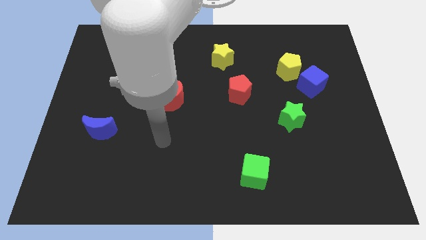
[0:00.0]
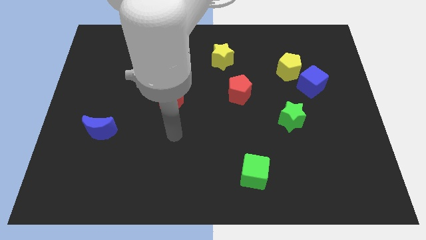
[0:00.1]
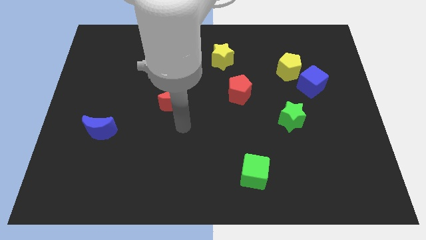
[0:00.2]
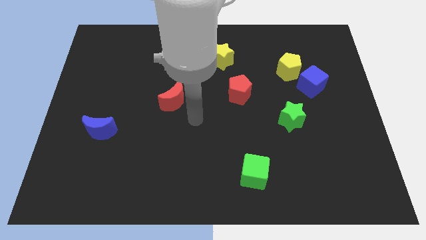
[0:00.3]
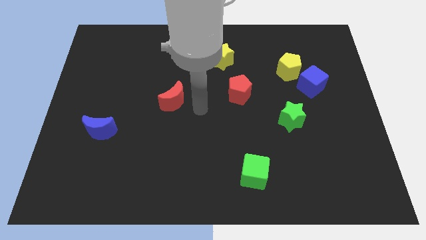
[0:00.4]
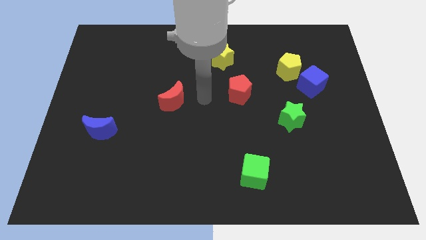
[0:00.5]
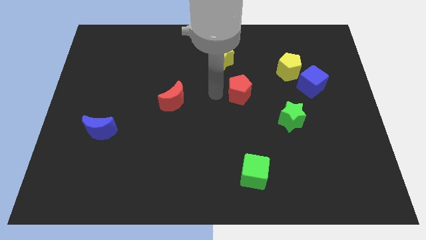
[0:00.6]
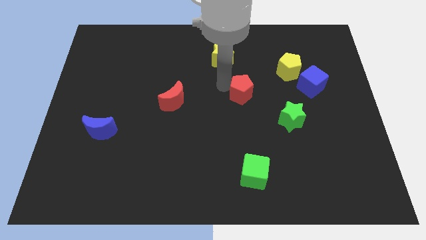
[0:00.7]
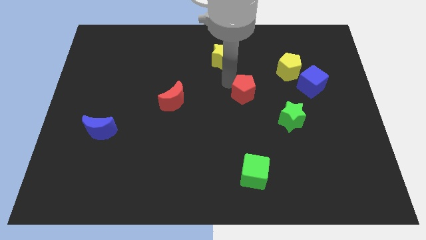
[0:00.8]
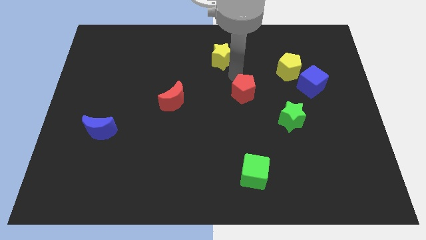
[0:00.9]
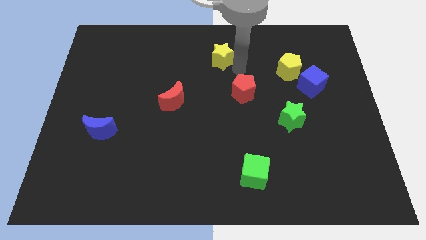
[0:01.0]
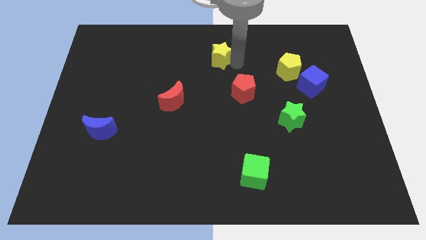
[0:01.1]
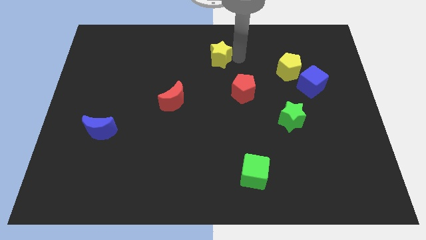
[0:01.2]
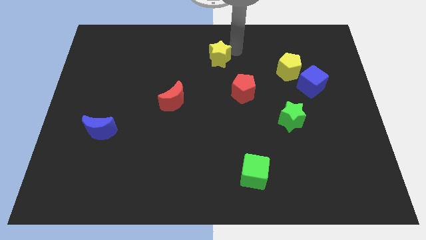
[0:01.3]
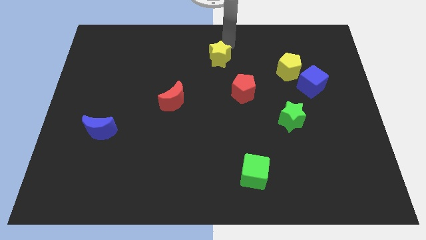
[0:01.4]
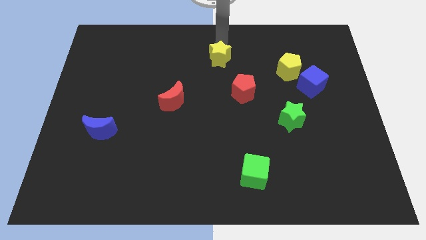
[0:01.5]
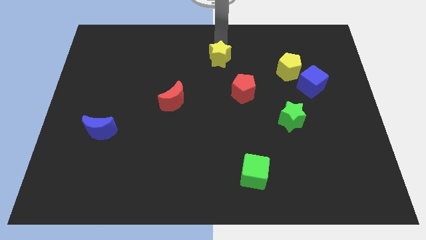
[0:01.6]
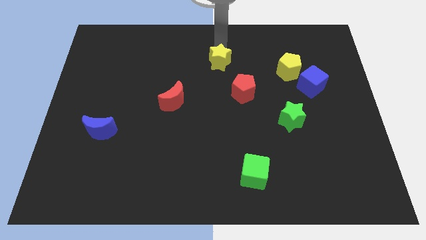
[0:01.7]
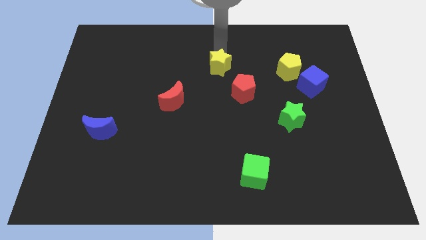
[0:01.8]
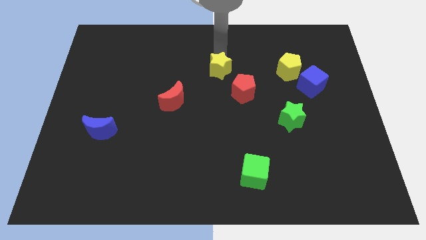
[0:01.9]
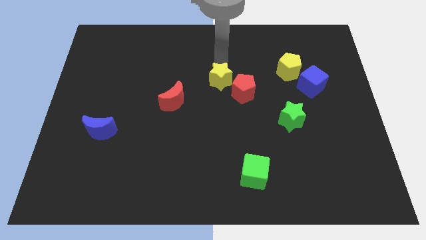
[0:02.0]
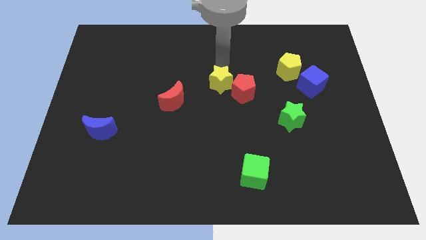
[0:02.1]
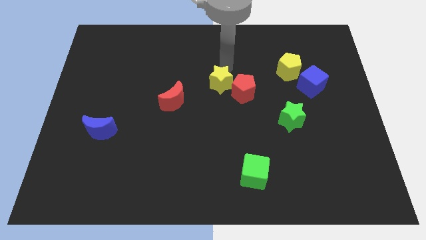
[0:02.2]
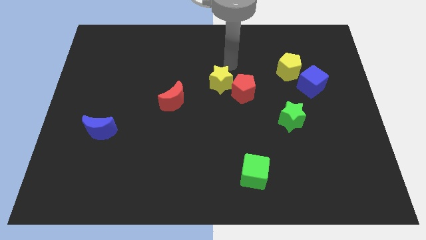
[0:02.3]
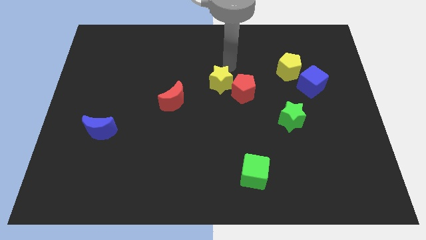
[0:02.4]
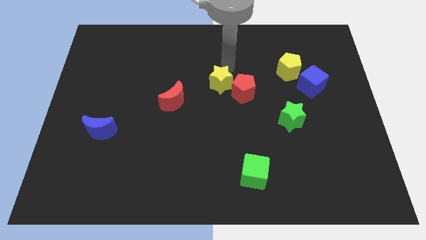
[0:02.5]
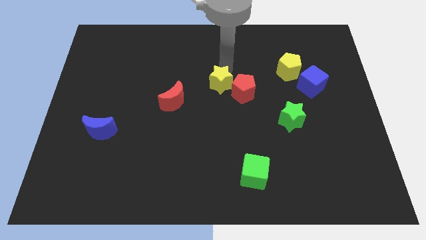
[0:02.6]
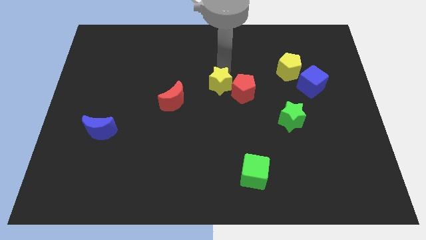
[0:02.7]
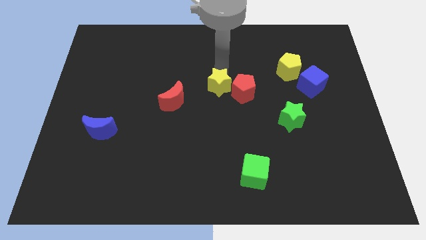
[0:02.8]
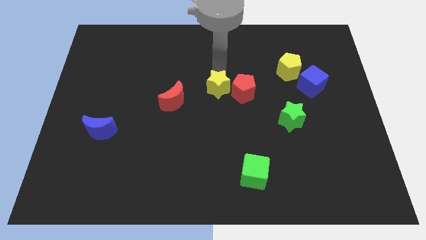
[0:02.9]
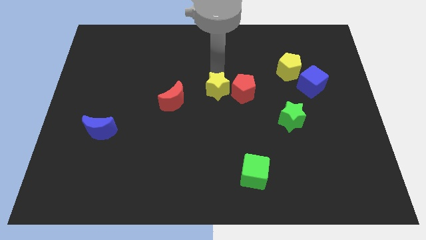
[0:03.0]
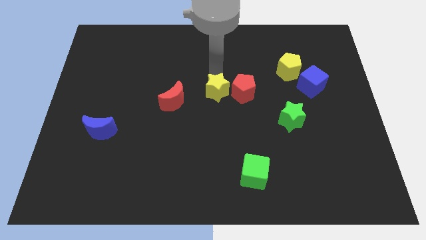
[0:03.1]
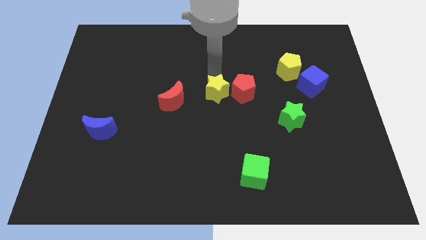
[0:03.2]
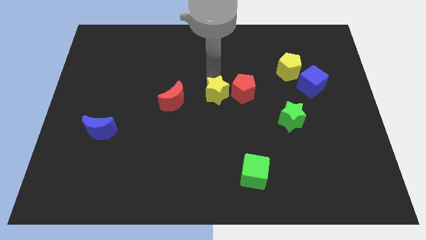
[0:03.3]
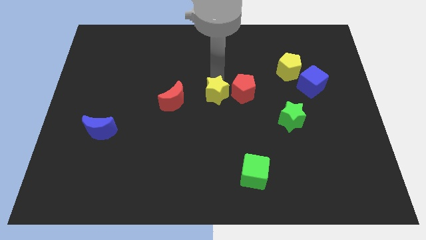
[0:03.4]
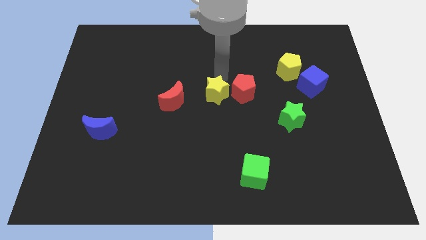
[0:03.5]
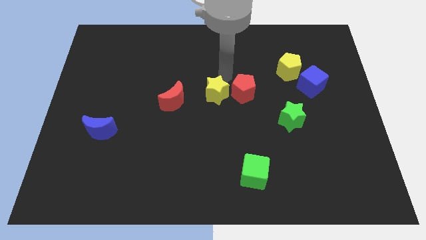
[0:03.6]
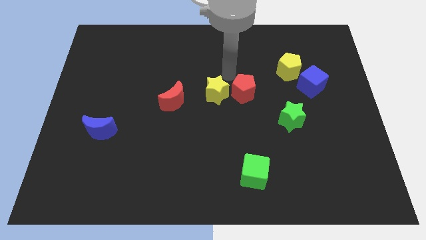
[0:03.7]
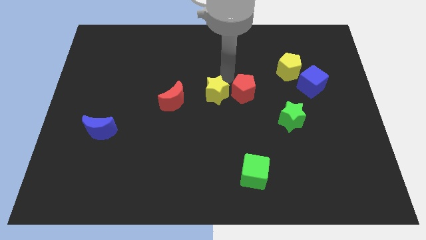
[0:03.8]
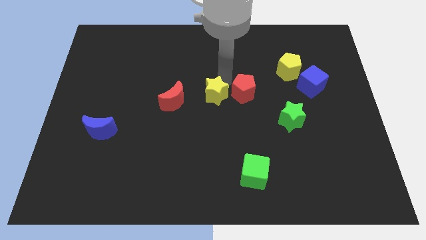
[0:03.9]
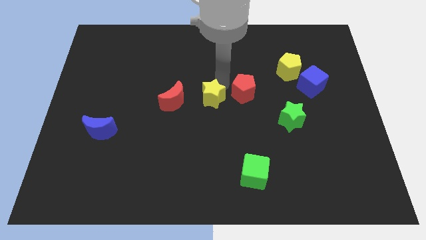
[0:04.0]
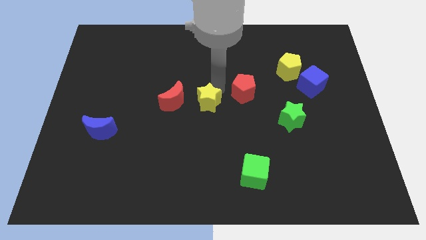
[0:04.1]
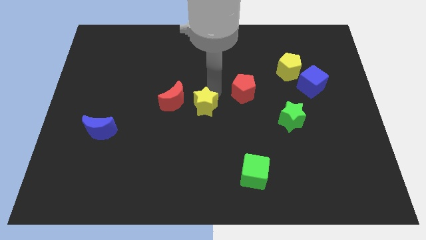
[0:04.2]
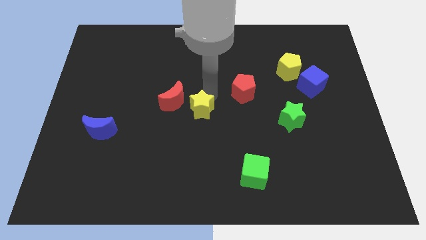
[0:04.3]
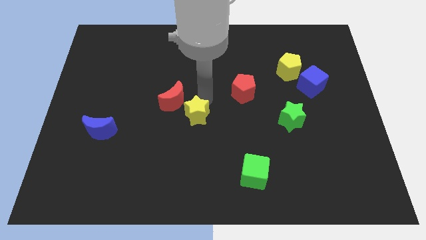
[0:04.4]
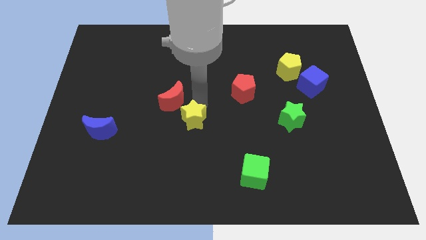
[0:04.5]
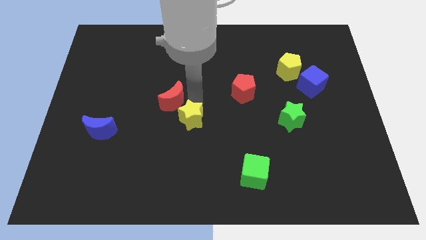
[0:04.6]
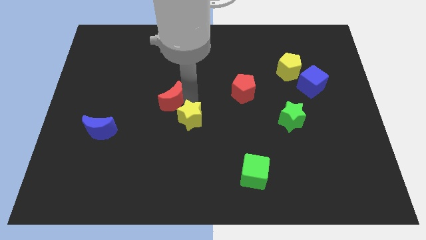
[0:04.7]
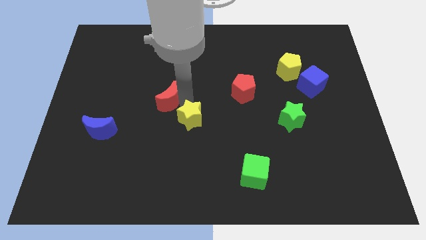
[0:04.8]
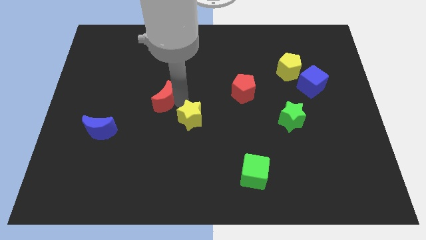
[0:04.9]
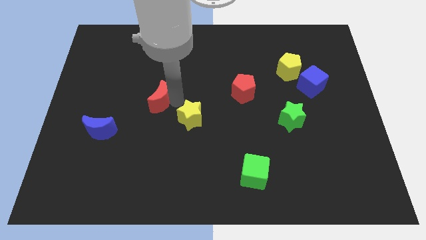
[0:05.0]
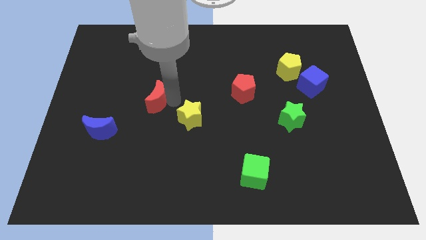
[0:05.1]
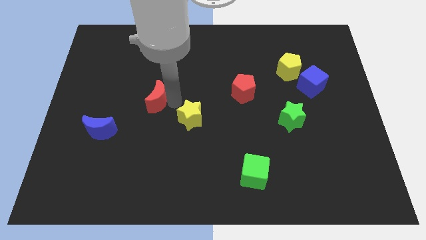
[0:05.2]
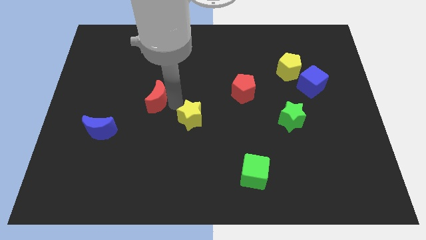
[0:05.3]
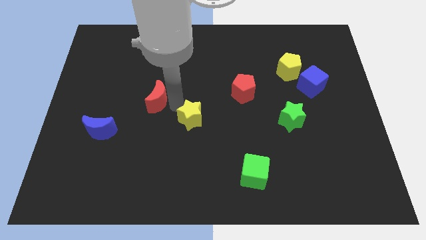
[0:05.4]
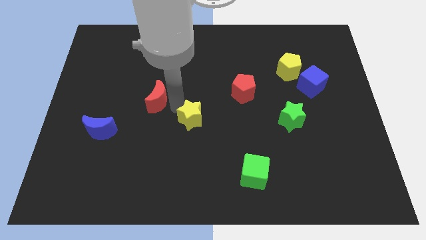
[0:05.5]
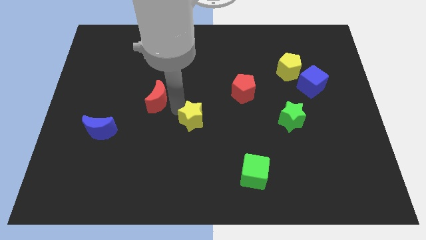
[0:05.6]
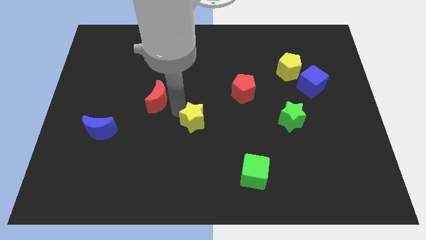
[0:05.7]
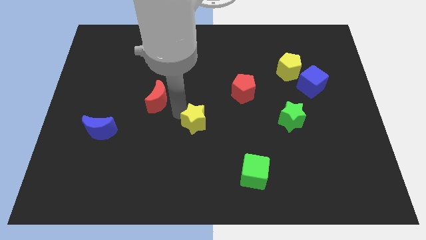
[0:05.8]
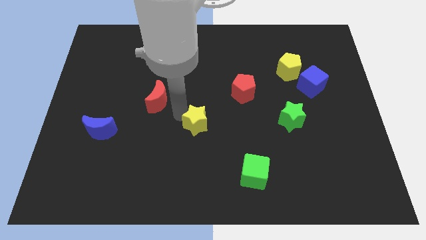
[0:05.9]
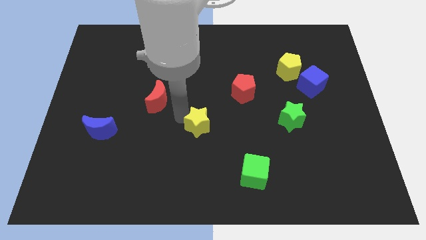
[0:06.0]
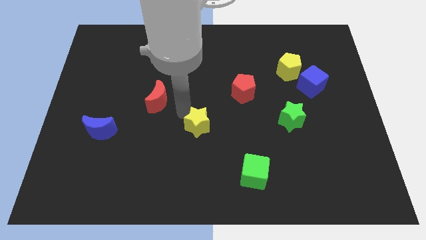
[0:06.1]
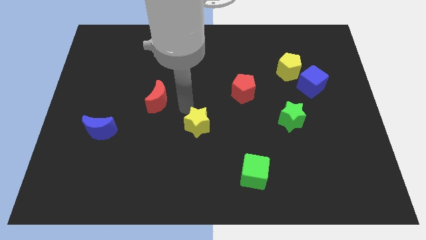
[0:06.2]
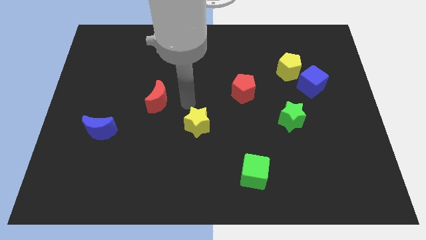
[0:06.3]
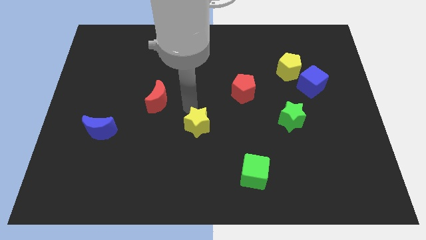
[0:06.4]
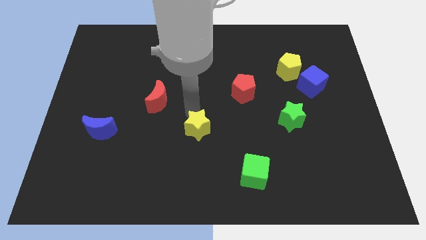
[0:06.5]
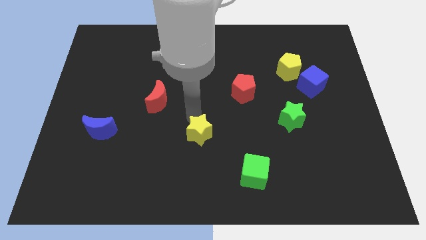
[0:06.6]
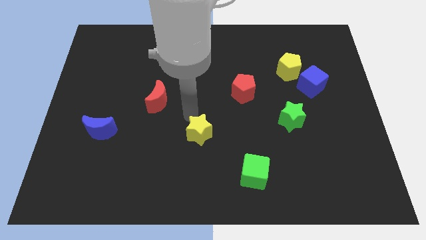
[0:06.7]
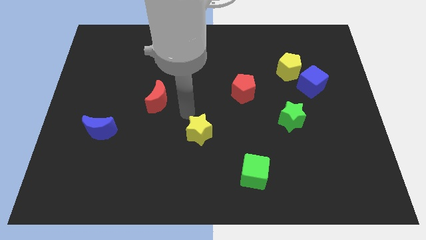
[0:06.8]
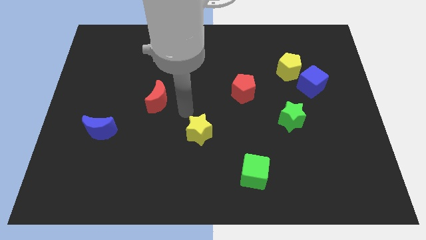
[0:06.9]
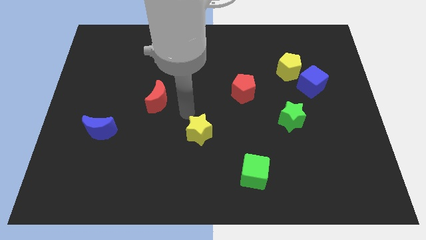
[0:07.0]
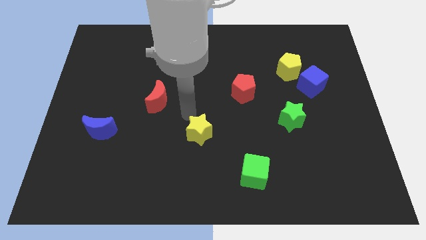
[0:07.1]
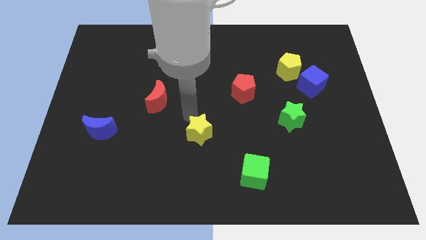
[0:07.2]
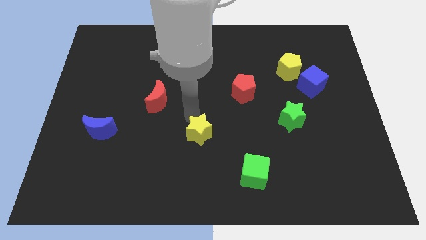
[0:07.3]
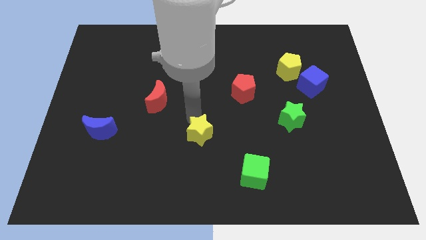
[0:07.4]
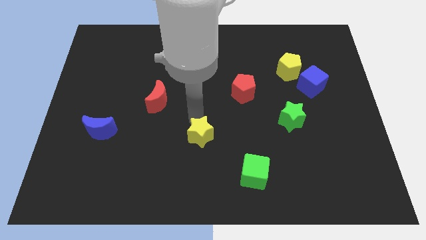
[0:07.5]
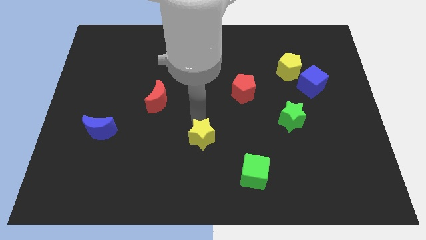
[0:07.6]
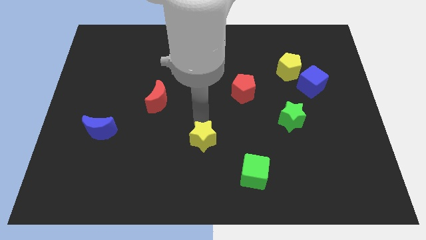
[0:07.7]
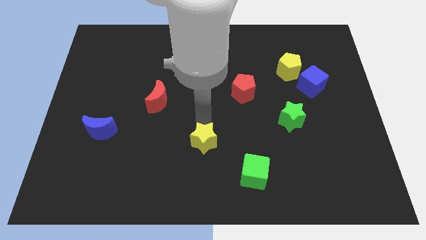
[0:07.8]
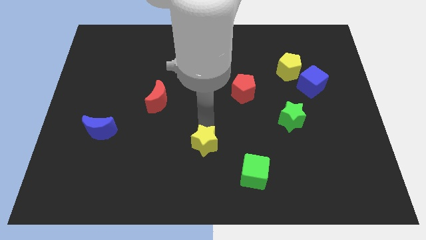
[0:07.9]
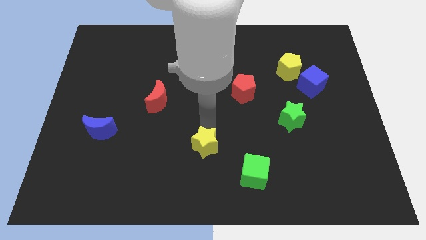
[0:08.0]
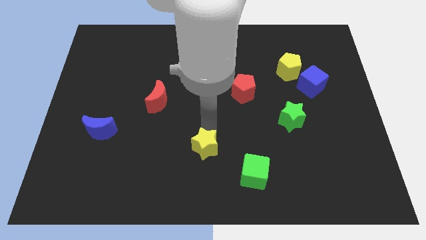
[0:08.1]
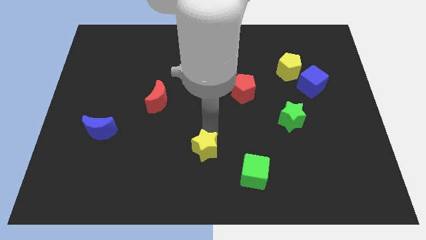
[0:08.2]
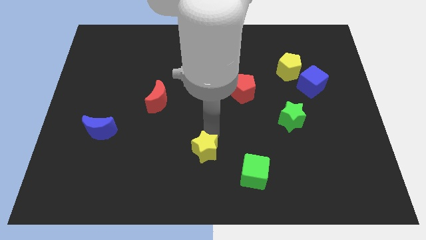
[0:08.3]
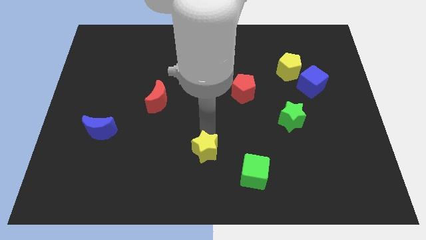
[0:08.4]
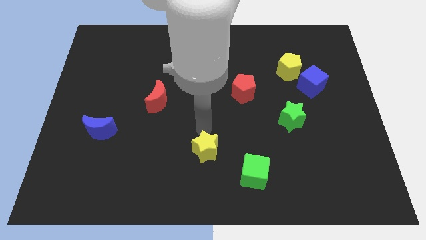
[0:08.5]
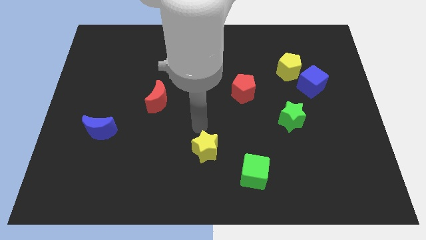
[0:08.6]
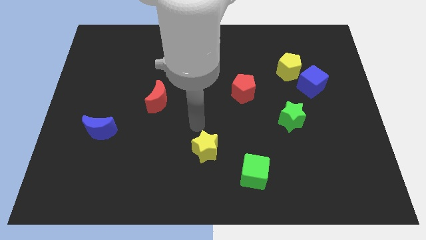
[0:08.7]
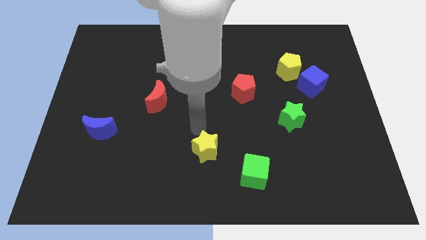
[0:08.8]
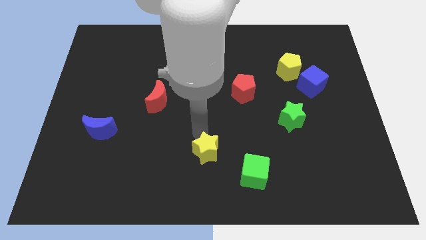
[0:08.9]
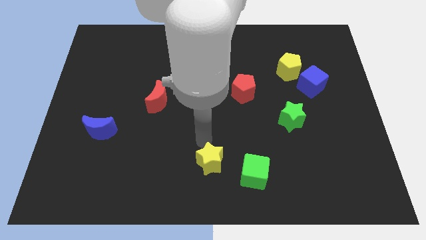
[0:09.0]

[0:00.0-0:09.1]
move the yellow star to the bottom side
